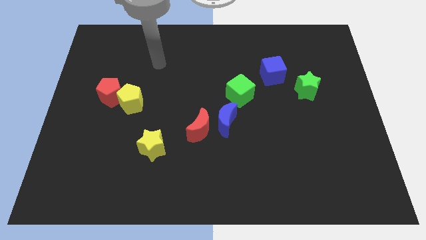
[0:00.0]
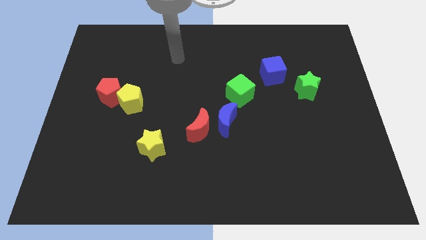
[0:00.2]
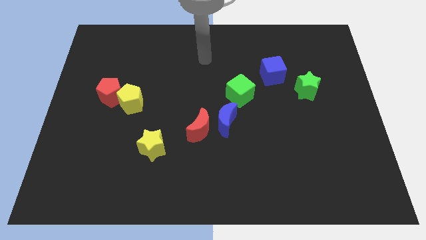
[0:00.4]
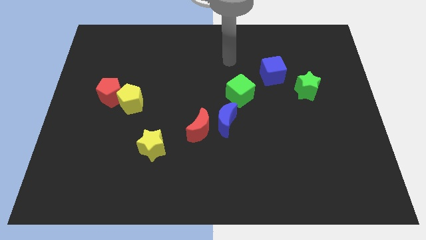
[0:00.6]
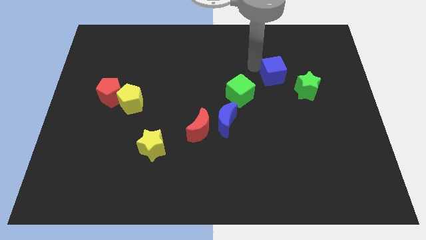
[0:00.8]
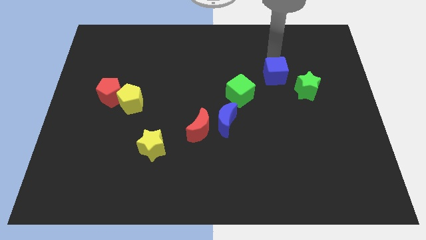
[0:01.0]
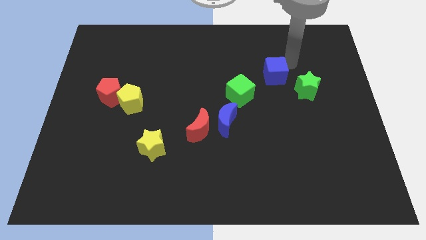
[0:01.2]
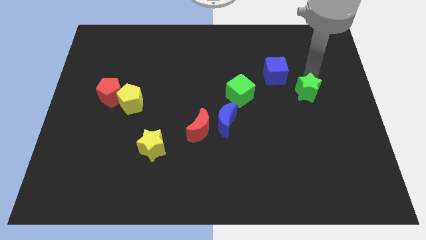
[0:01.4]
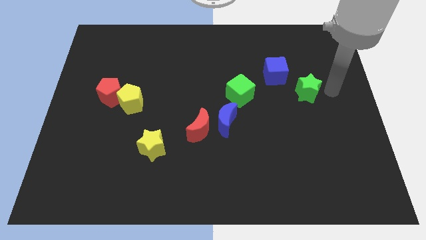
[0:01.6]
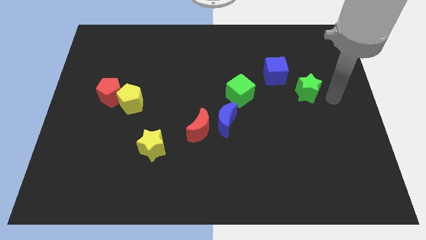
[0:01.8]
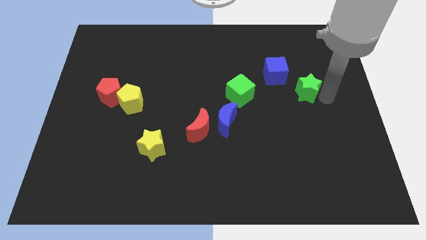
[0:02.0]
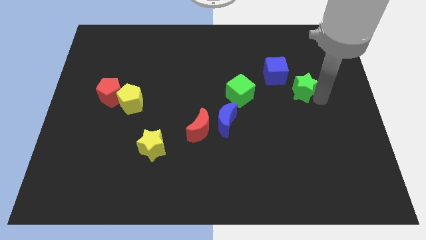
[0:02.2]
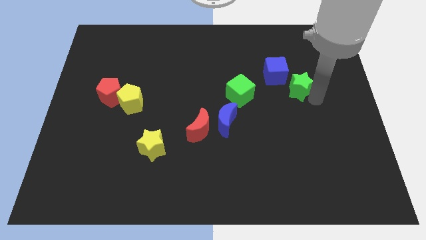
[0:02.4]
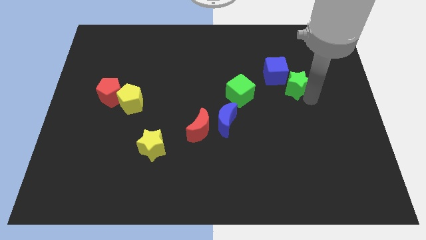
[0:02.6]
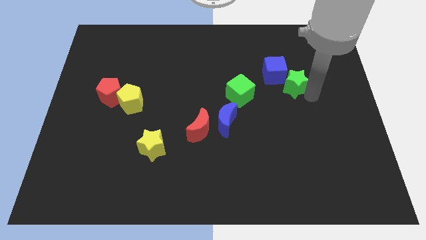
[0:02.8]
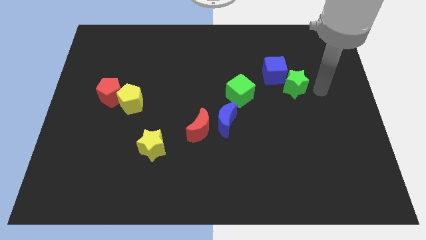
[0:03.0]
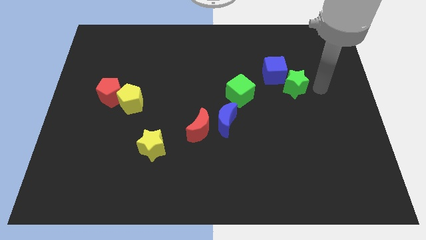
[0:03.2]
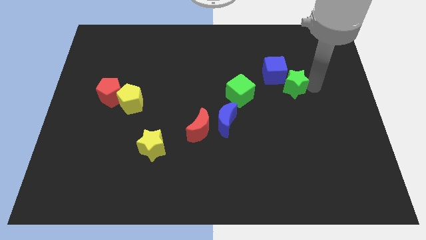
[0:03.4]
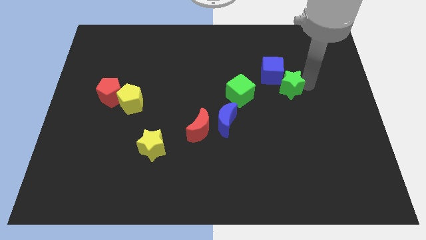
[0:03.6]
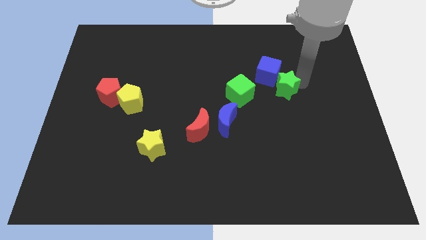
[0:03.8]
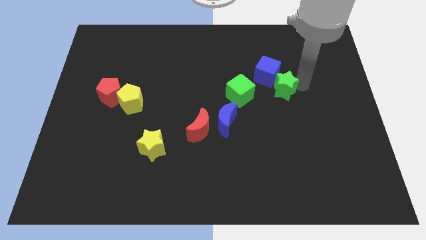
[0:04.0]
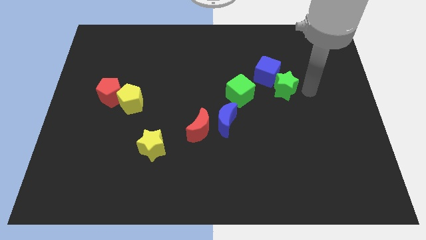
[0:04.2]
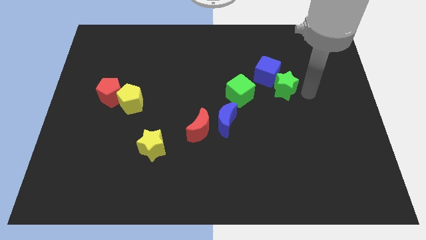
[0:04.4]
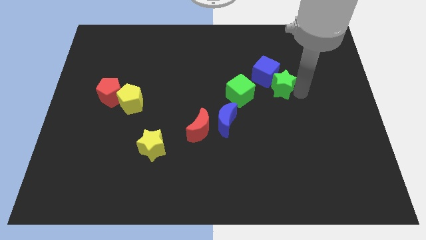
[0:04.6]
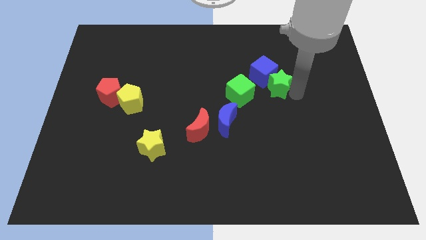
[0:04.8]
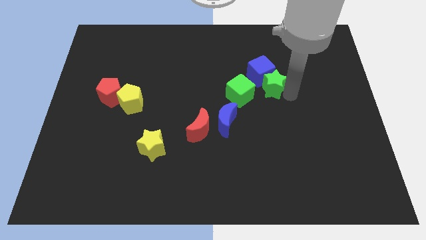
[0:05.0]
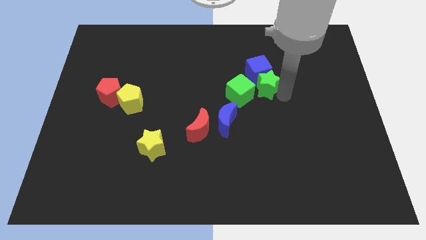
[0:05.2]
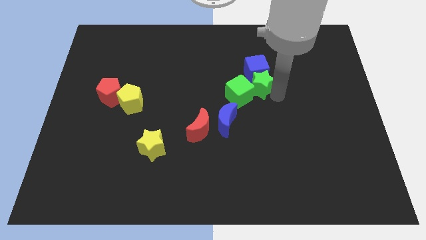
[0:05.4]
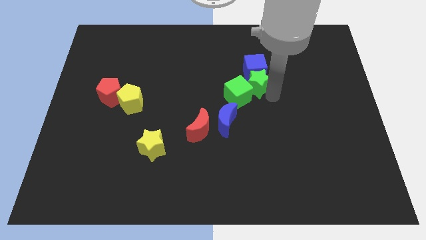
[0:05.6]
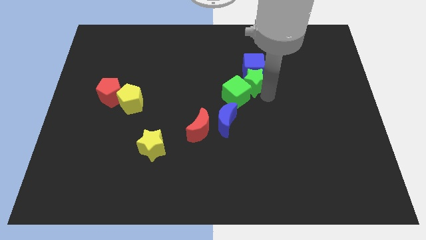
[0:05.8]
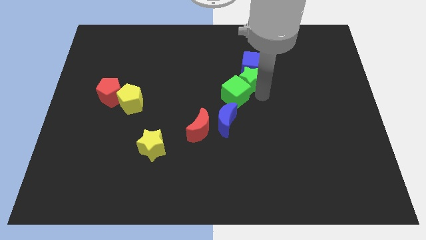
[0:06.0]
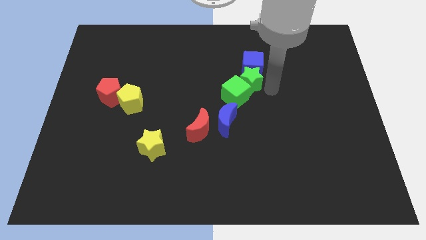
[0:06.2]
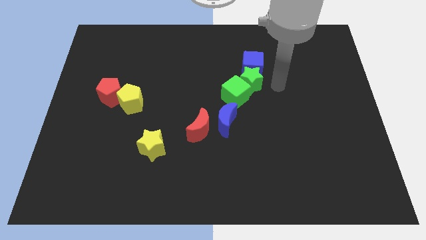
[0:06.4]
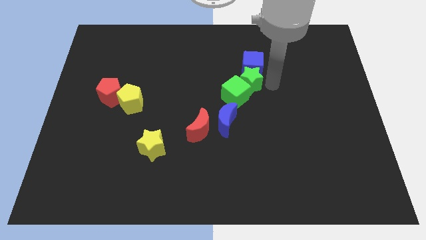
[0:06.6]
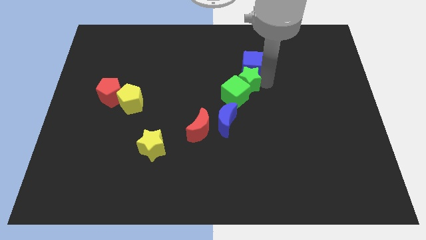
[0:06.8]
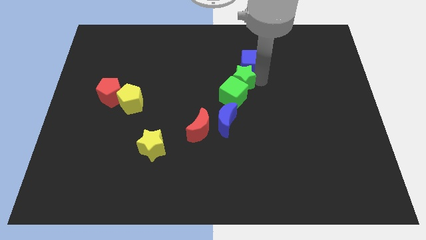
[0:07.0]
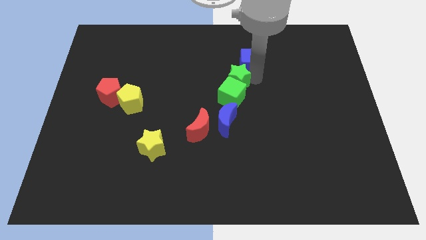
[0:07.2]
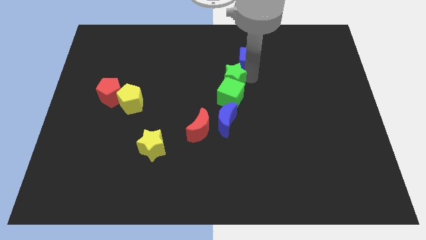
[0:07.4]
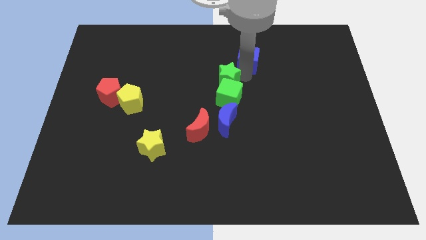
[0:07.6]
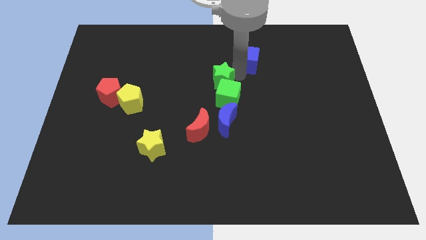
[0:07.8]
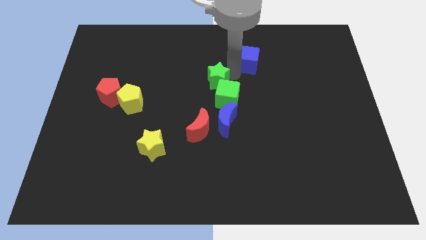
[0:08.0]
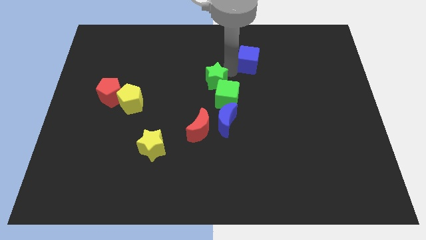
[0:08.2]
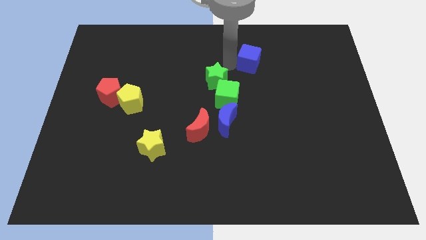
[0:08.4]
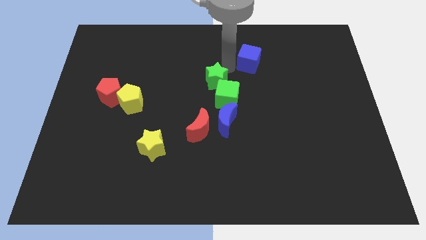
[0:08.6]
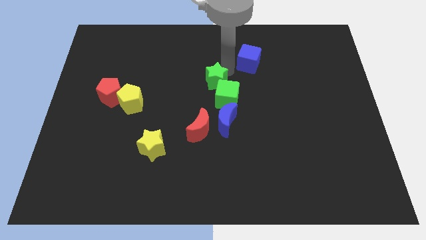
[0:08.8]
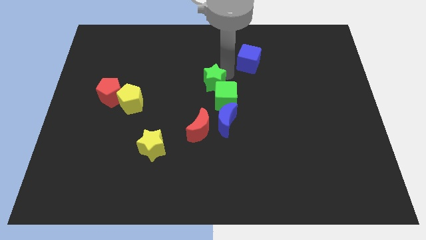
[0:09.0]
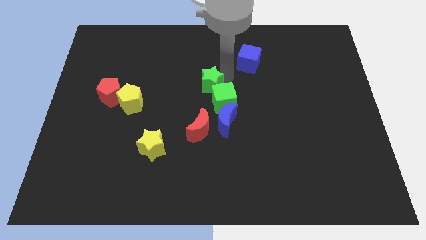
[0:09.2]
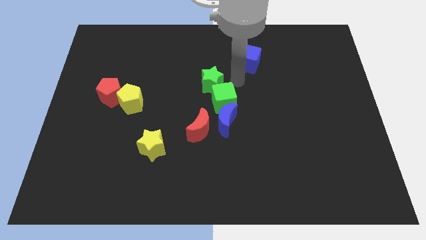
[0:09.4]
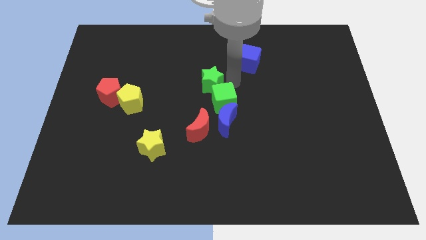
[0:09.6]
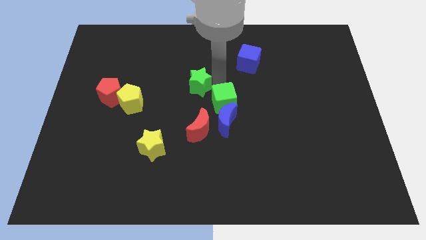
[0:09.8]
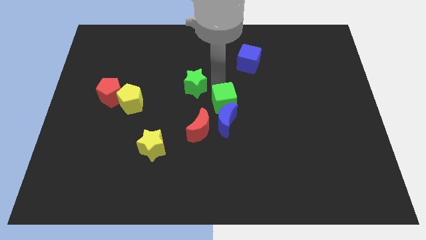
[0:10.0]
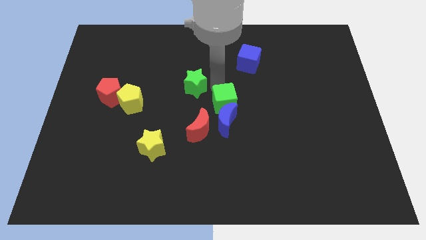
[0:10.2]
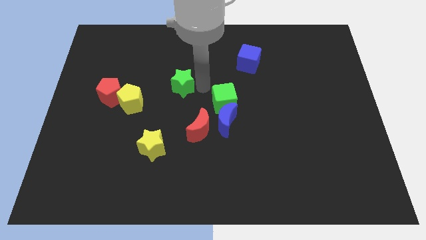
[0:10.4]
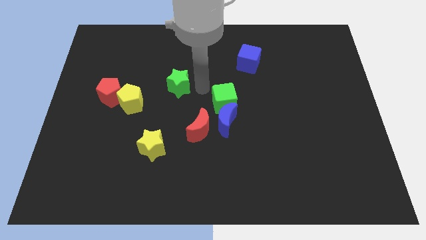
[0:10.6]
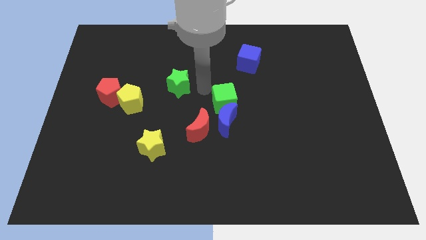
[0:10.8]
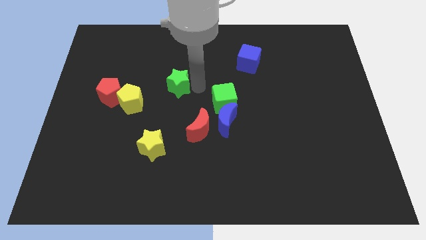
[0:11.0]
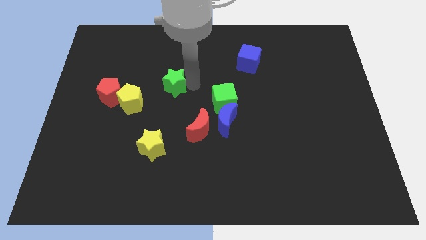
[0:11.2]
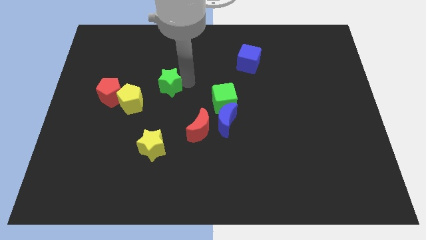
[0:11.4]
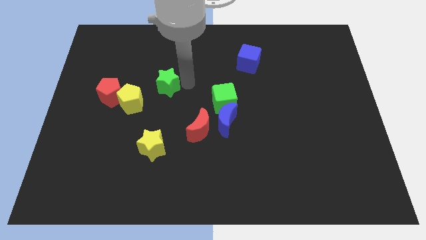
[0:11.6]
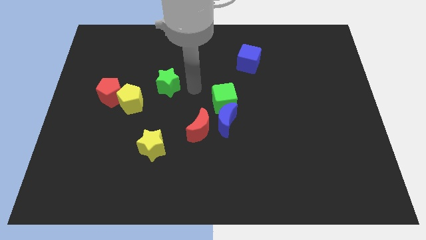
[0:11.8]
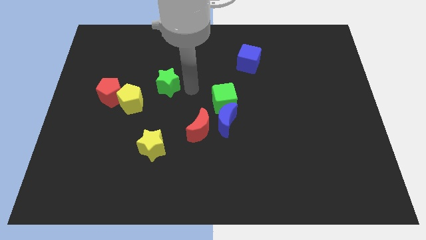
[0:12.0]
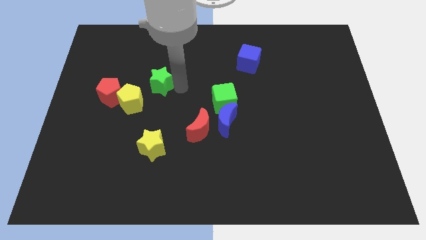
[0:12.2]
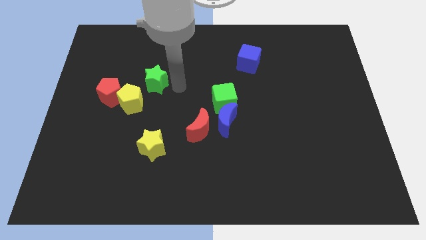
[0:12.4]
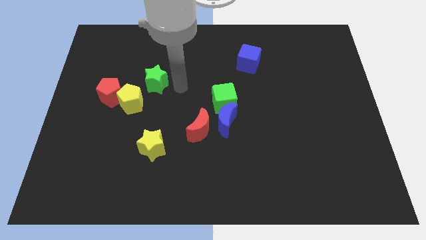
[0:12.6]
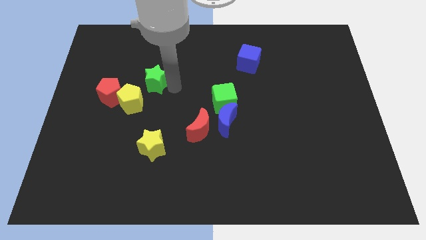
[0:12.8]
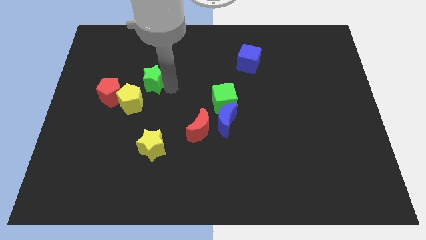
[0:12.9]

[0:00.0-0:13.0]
slide the green star to the top right side of the red pentagon
